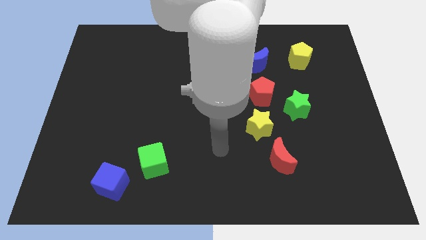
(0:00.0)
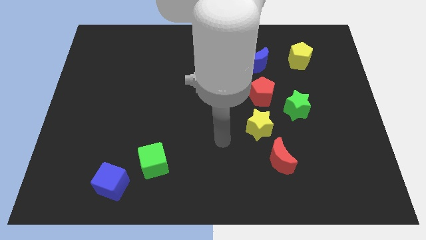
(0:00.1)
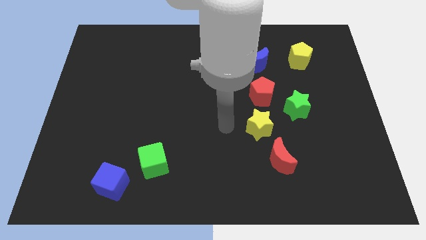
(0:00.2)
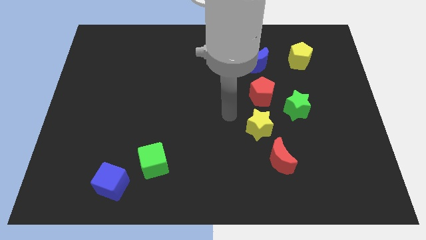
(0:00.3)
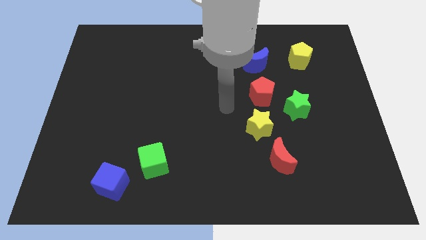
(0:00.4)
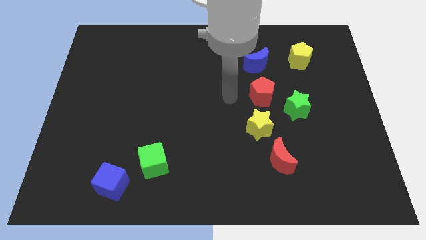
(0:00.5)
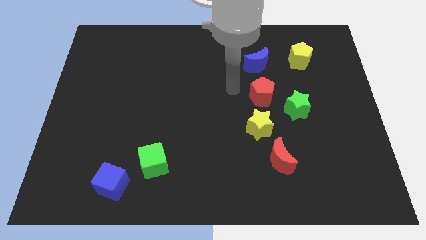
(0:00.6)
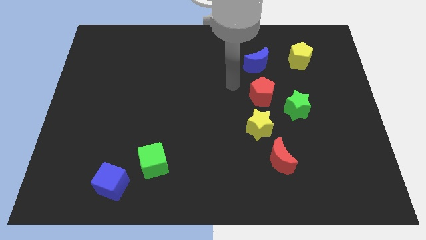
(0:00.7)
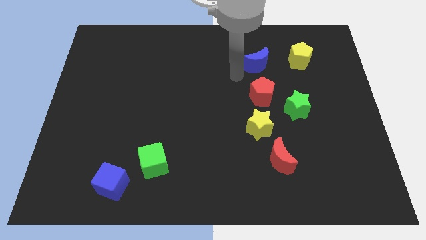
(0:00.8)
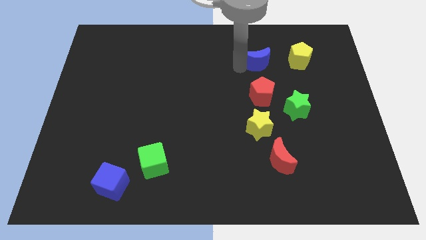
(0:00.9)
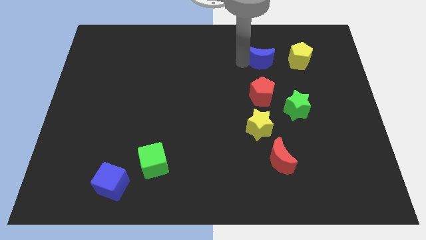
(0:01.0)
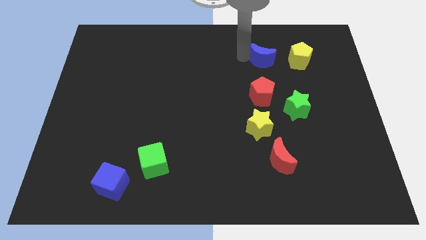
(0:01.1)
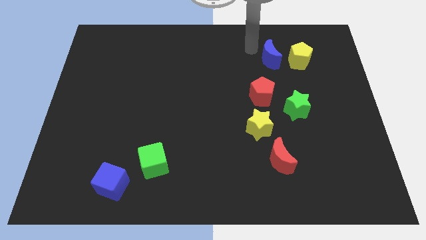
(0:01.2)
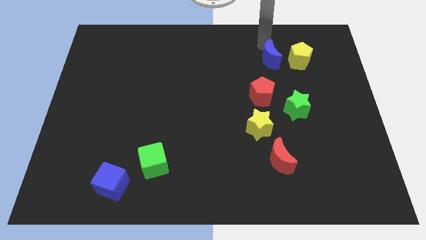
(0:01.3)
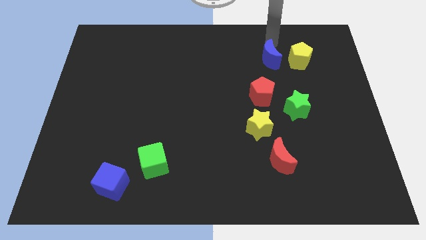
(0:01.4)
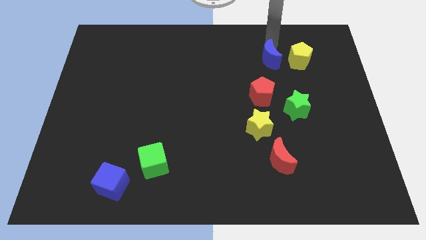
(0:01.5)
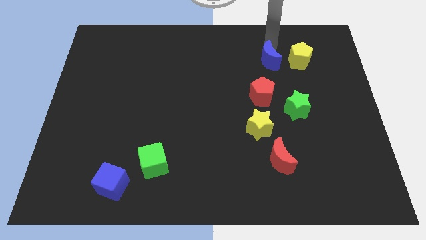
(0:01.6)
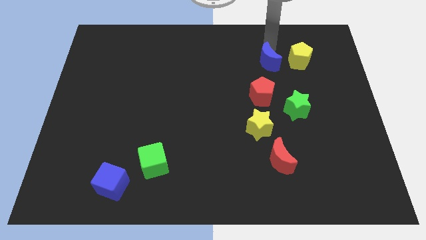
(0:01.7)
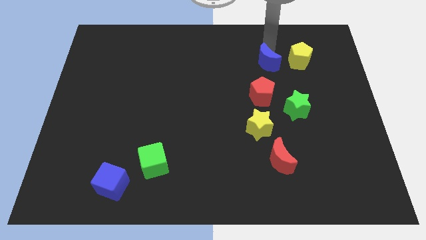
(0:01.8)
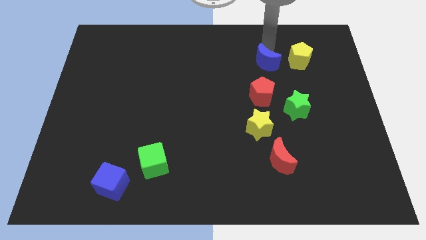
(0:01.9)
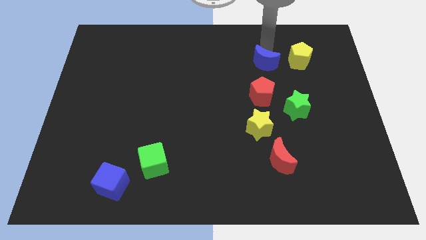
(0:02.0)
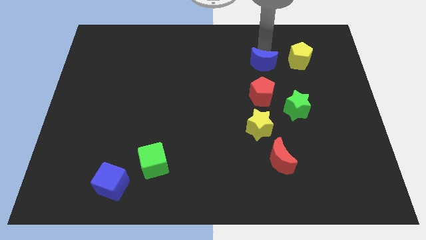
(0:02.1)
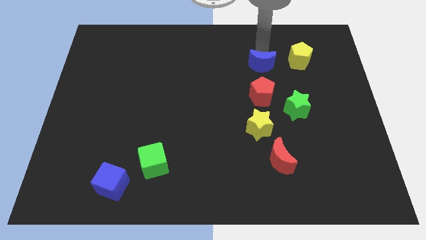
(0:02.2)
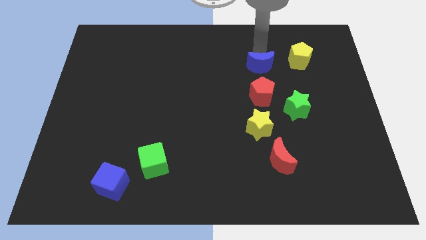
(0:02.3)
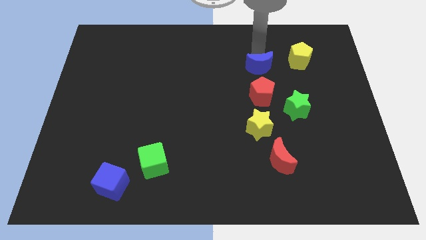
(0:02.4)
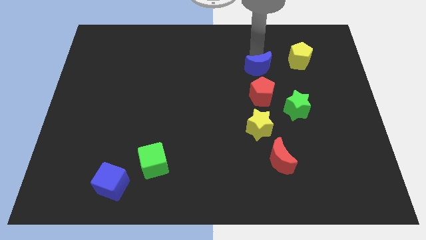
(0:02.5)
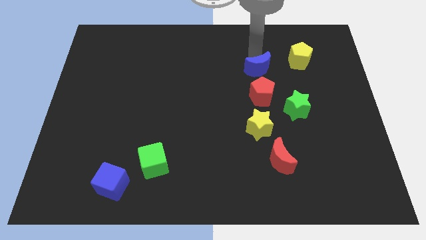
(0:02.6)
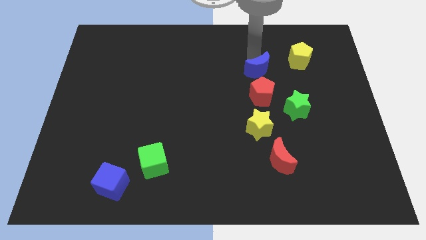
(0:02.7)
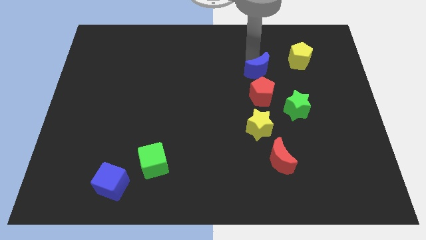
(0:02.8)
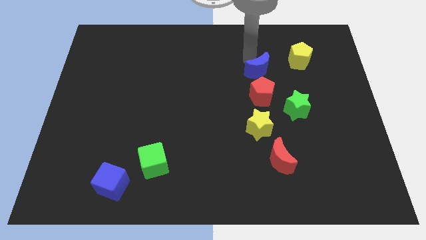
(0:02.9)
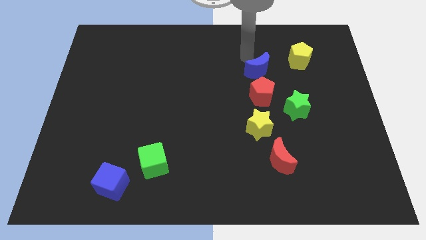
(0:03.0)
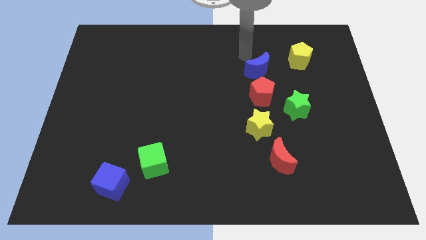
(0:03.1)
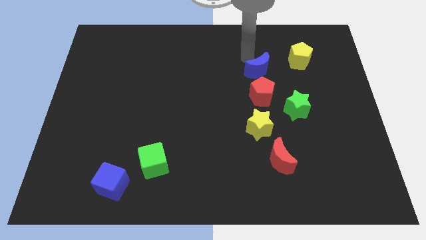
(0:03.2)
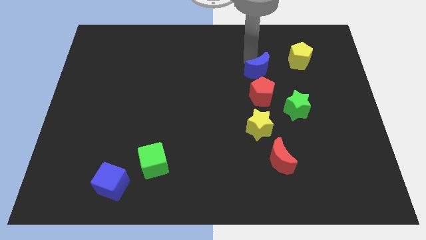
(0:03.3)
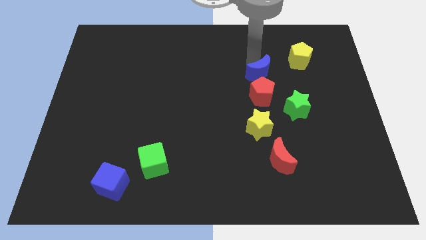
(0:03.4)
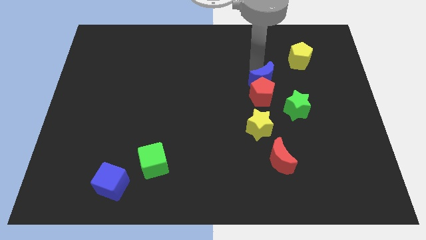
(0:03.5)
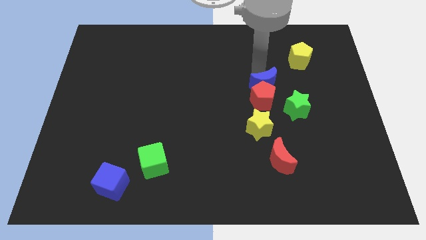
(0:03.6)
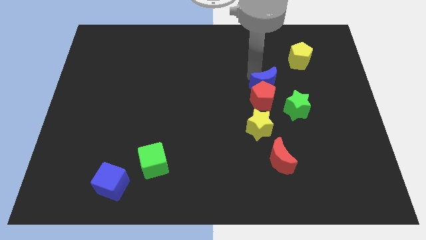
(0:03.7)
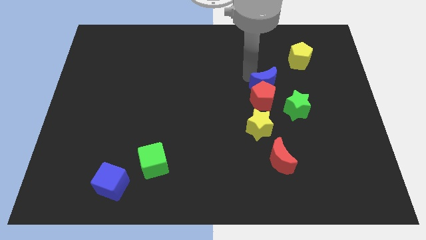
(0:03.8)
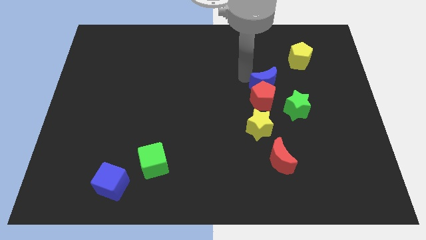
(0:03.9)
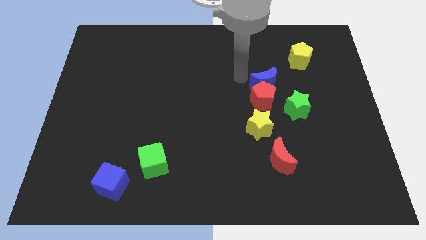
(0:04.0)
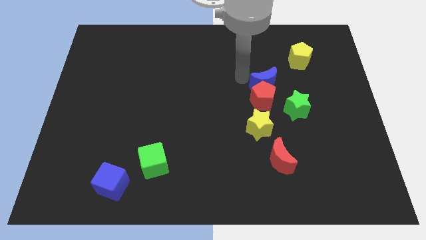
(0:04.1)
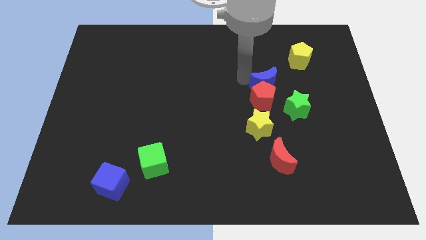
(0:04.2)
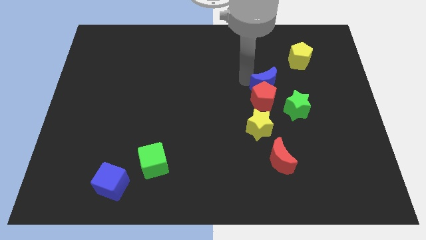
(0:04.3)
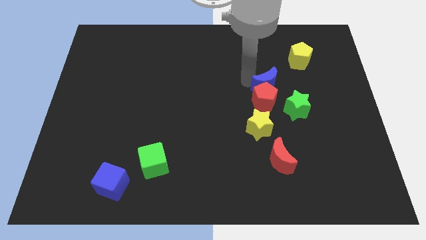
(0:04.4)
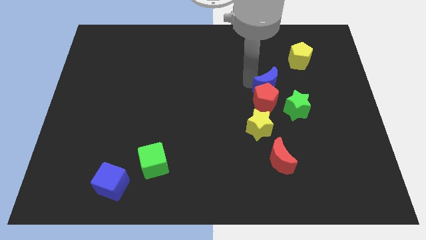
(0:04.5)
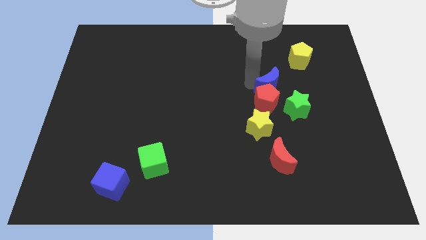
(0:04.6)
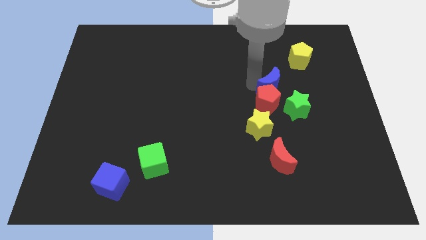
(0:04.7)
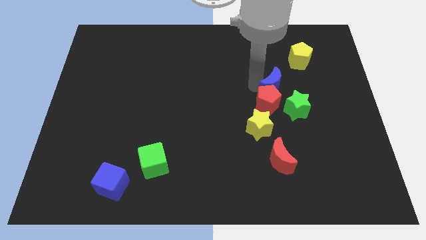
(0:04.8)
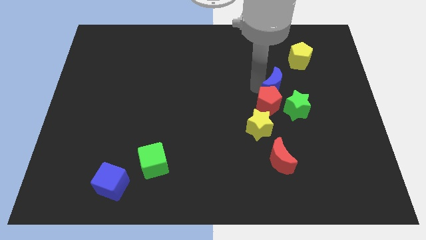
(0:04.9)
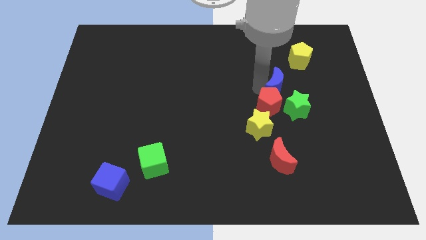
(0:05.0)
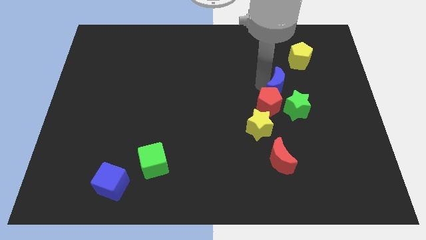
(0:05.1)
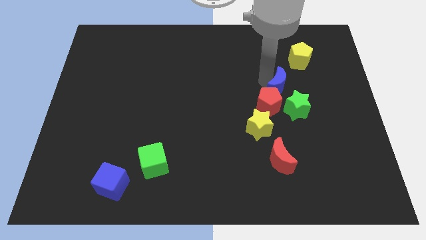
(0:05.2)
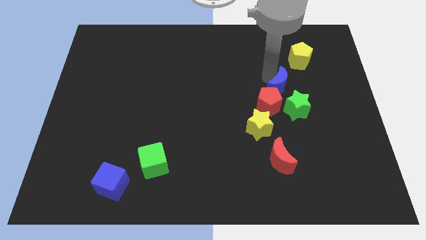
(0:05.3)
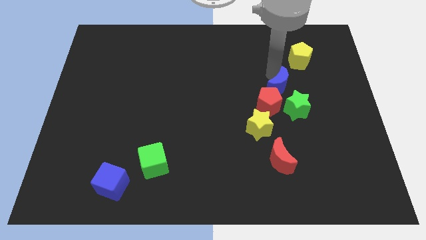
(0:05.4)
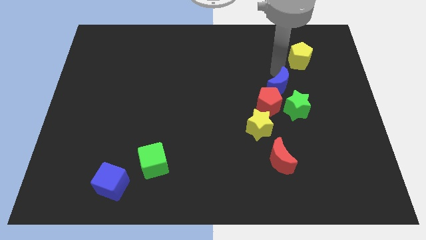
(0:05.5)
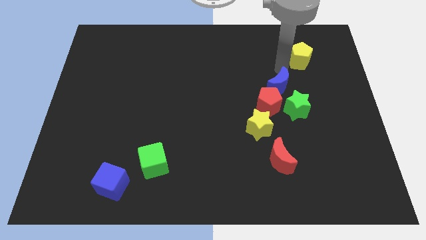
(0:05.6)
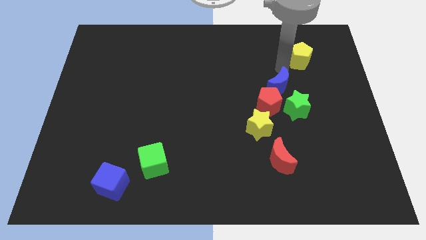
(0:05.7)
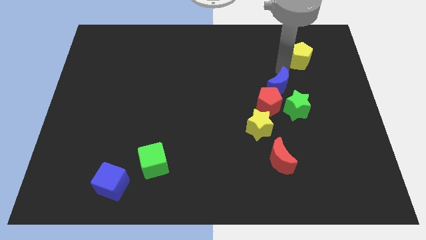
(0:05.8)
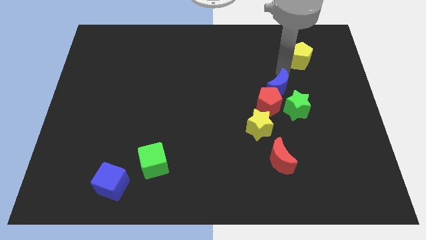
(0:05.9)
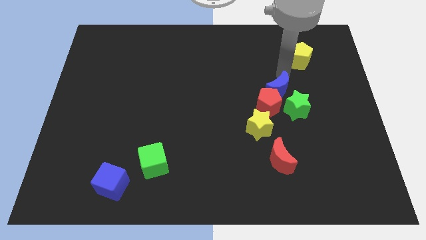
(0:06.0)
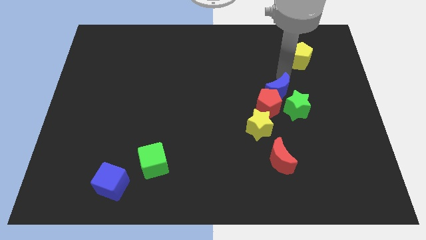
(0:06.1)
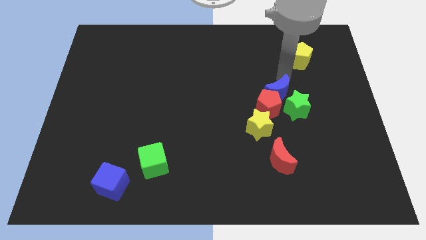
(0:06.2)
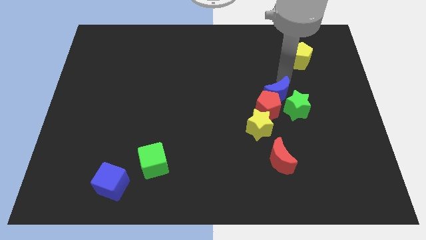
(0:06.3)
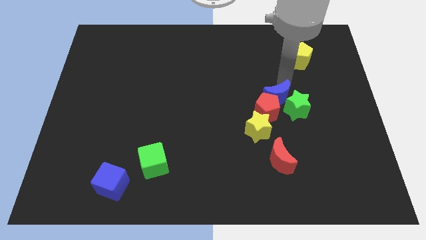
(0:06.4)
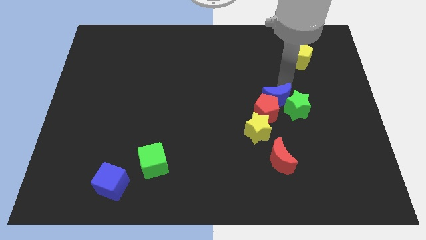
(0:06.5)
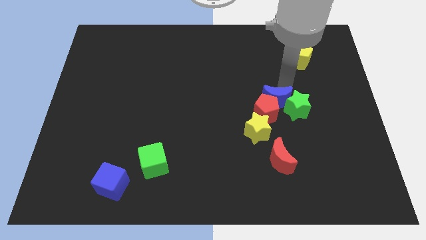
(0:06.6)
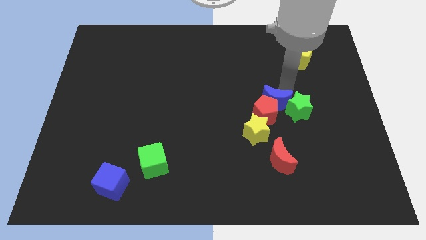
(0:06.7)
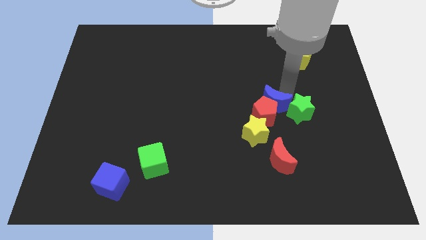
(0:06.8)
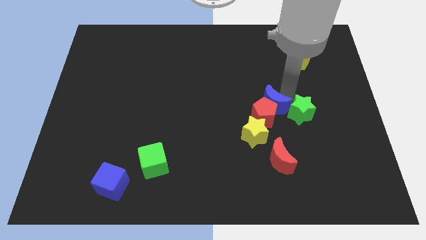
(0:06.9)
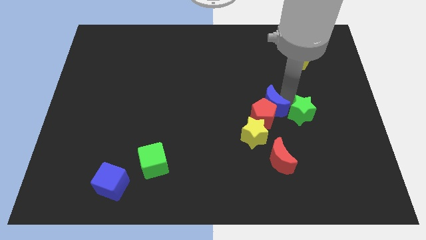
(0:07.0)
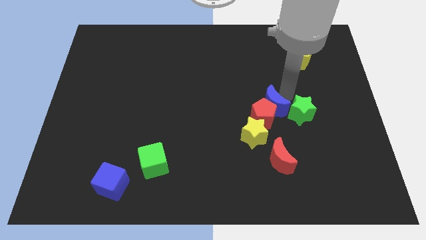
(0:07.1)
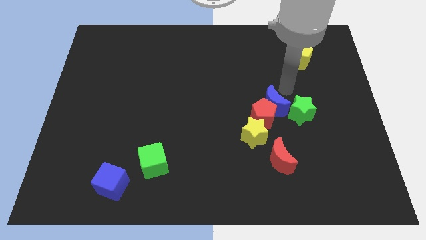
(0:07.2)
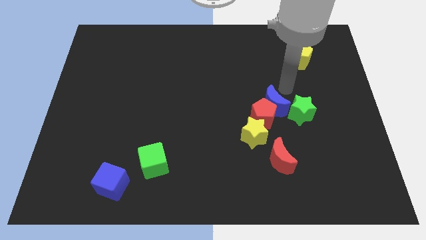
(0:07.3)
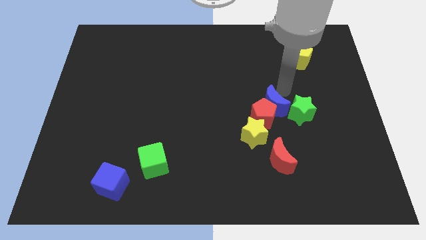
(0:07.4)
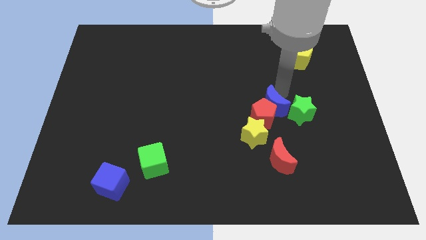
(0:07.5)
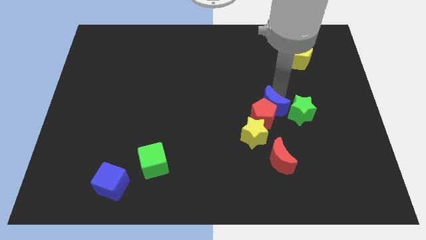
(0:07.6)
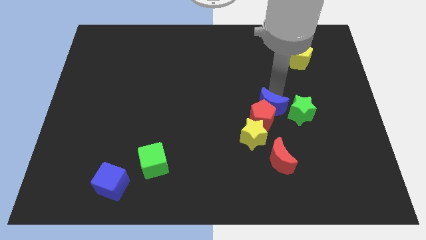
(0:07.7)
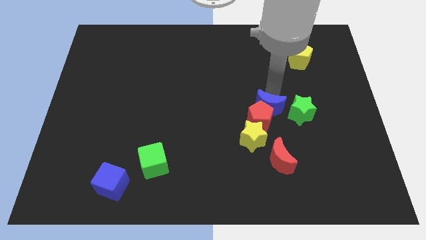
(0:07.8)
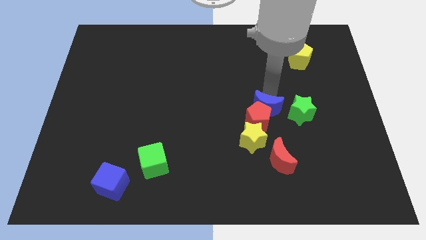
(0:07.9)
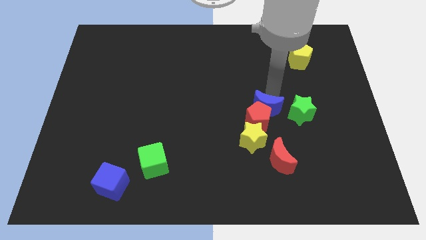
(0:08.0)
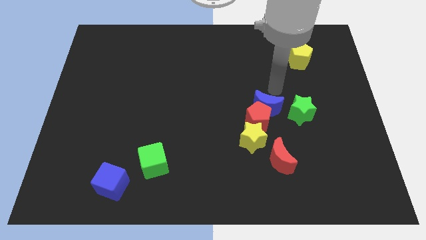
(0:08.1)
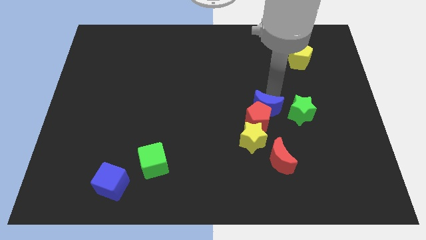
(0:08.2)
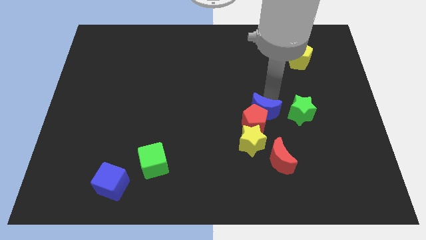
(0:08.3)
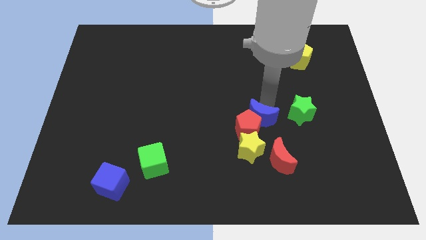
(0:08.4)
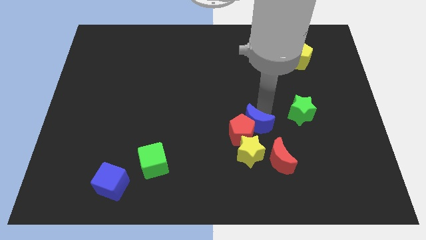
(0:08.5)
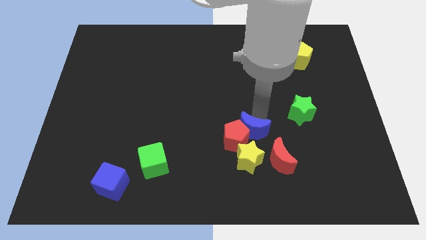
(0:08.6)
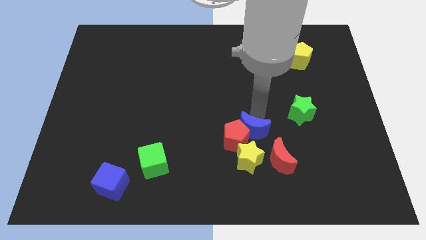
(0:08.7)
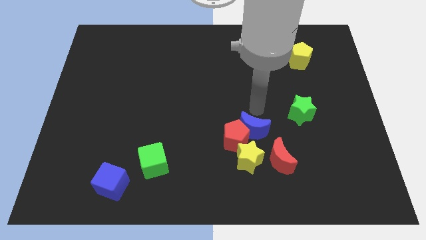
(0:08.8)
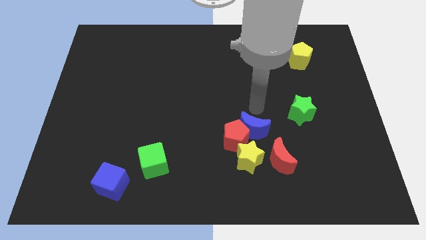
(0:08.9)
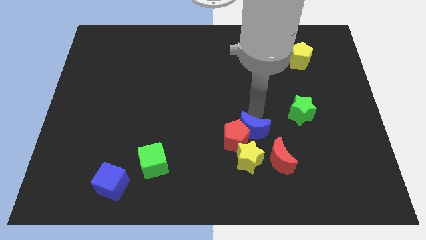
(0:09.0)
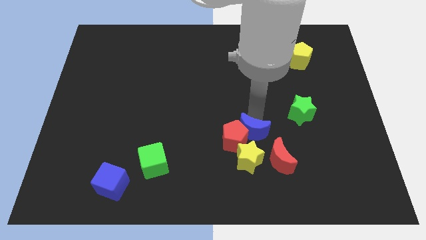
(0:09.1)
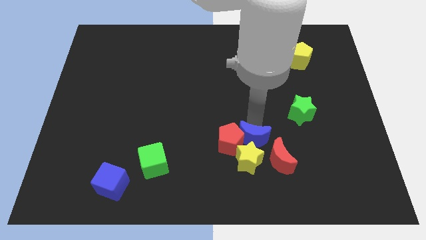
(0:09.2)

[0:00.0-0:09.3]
move the blue moon close to the yellow star
